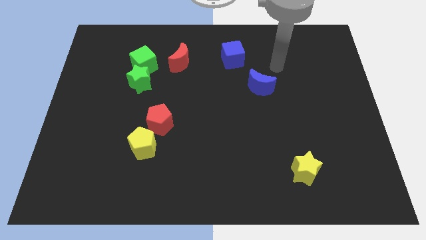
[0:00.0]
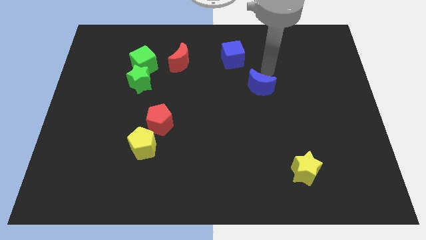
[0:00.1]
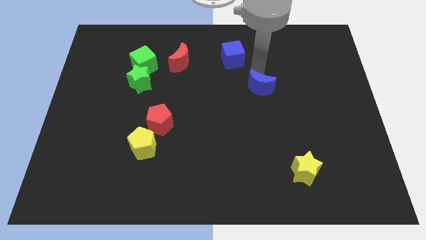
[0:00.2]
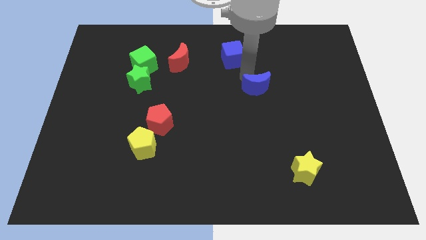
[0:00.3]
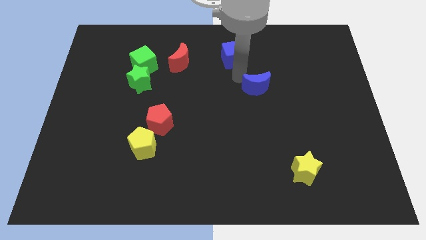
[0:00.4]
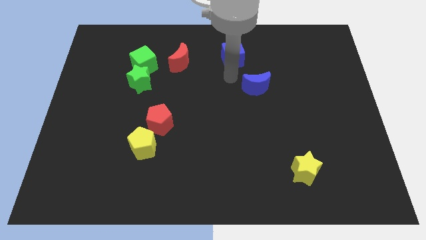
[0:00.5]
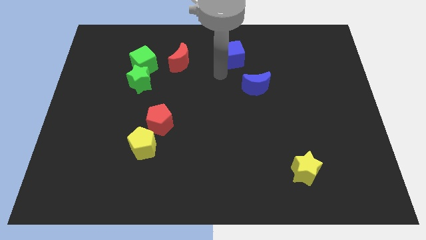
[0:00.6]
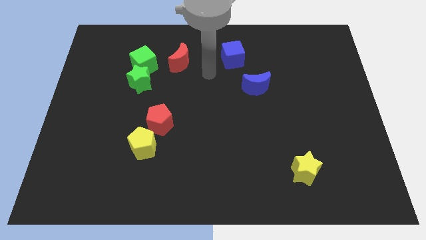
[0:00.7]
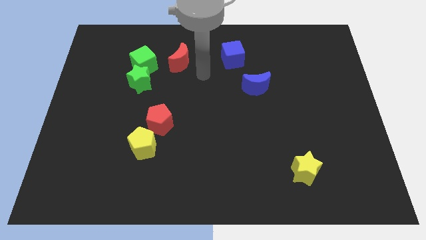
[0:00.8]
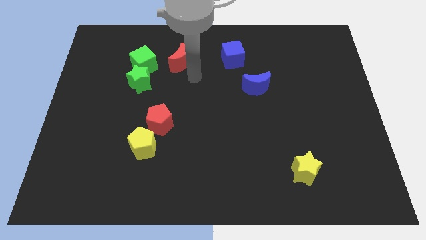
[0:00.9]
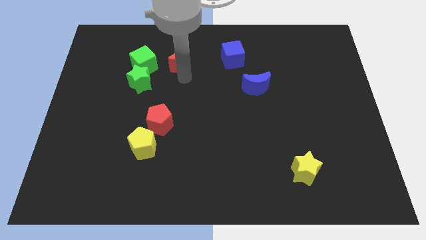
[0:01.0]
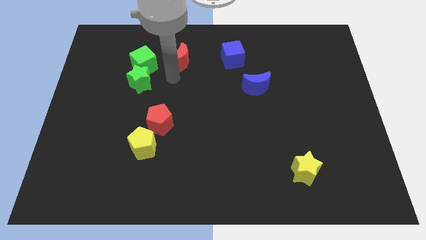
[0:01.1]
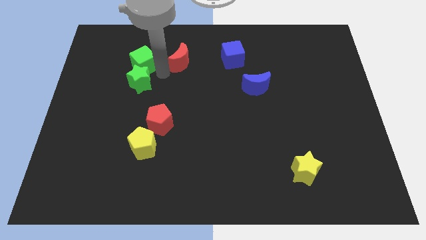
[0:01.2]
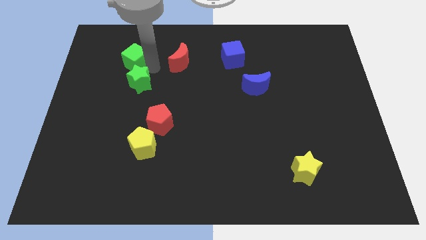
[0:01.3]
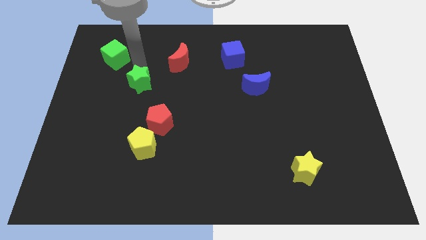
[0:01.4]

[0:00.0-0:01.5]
move the green star away from the green cube

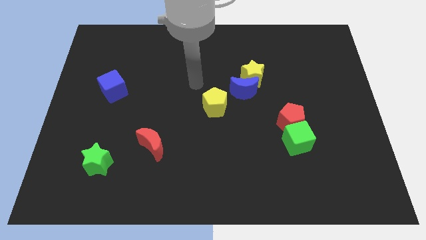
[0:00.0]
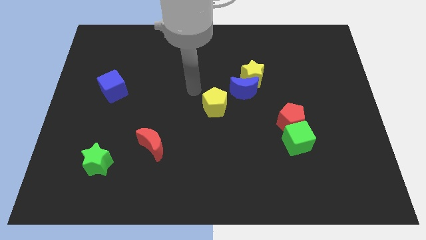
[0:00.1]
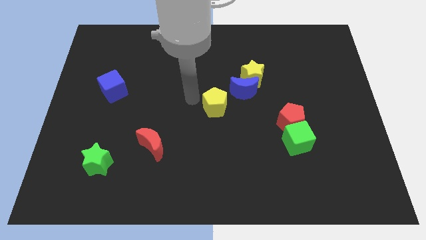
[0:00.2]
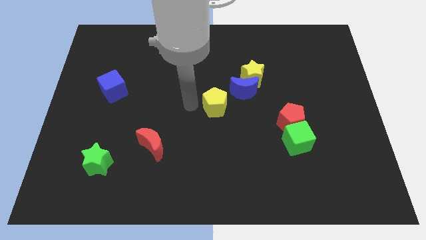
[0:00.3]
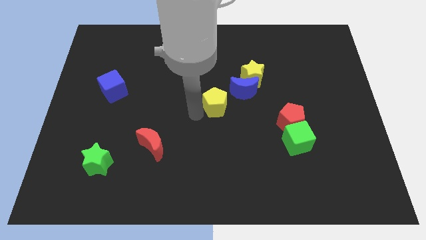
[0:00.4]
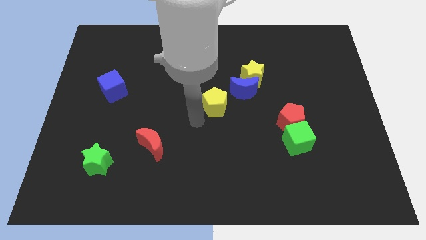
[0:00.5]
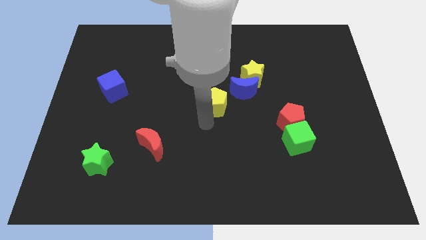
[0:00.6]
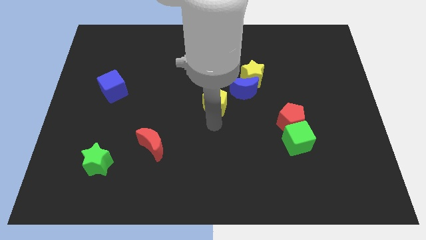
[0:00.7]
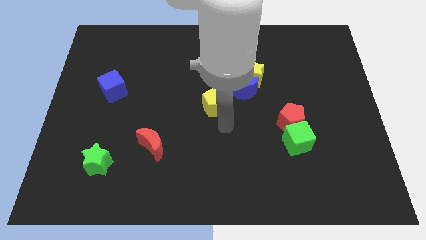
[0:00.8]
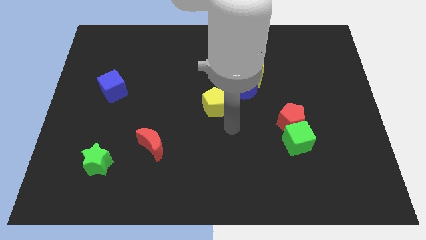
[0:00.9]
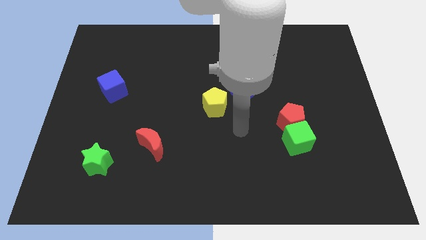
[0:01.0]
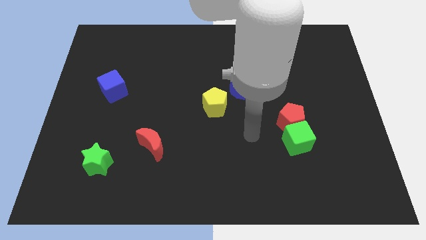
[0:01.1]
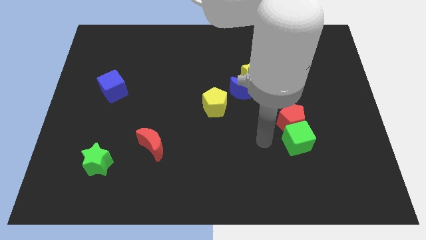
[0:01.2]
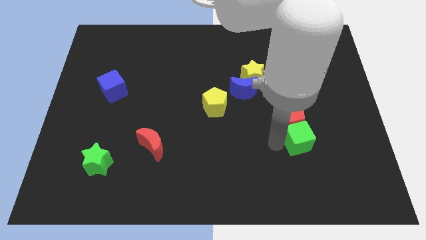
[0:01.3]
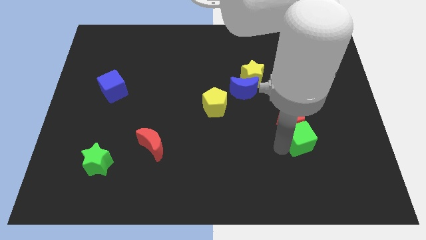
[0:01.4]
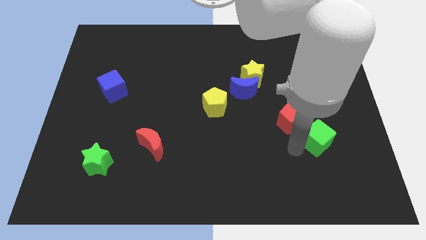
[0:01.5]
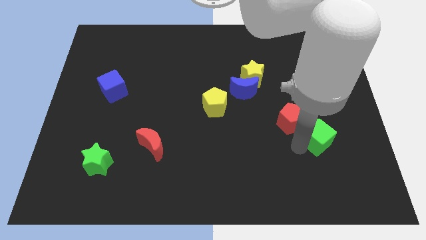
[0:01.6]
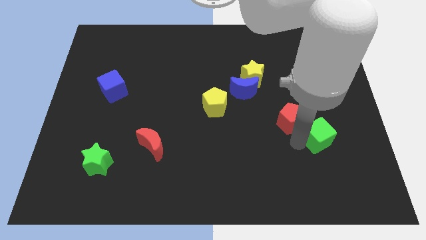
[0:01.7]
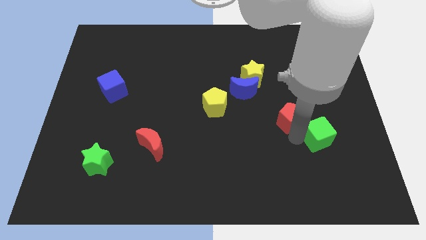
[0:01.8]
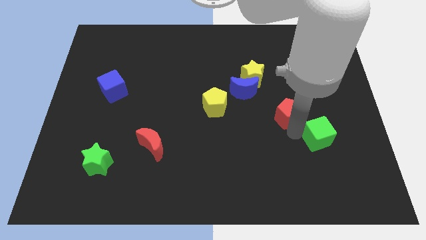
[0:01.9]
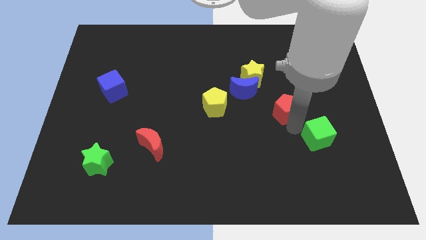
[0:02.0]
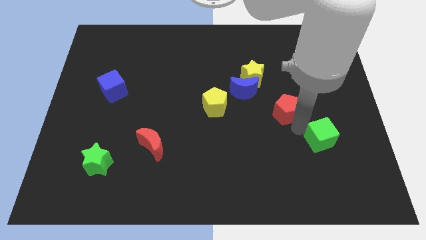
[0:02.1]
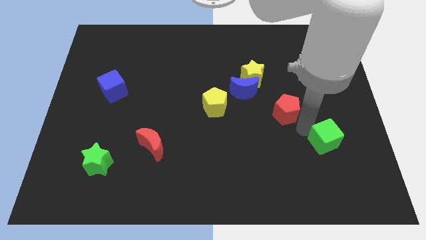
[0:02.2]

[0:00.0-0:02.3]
move the red pentagon away from the green cube

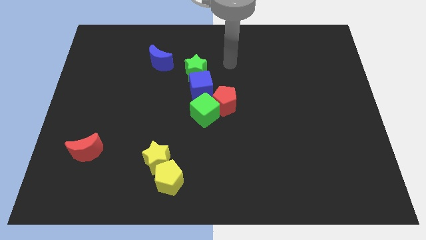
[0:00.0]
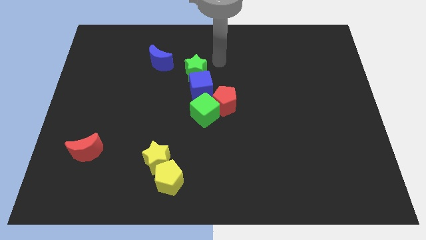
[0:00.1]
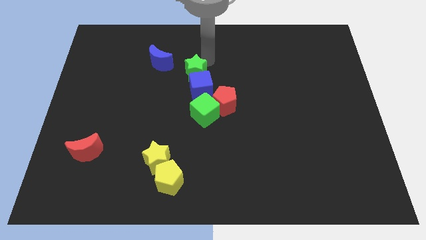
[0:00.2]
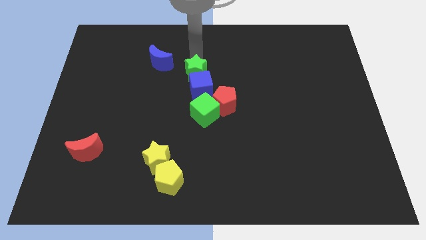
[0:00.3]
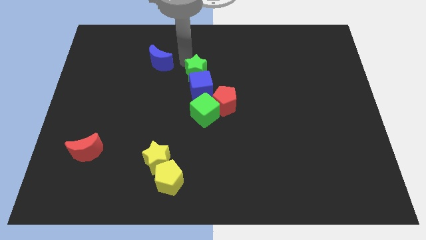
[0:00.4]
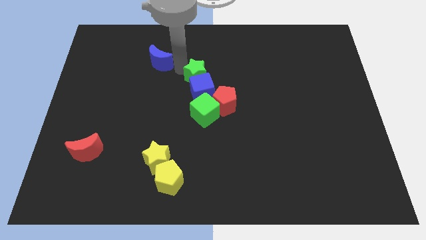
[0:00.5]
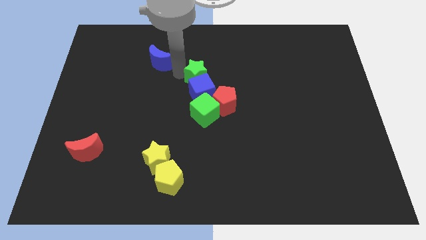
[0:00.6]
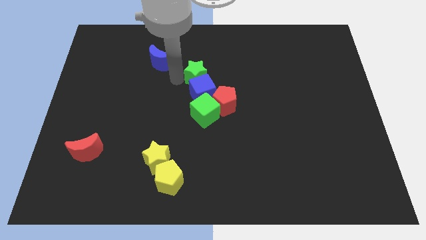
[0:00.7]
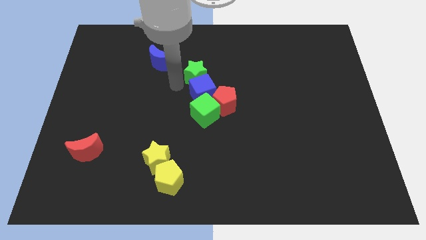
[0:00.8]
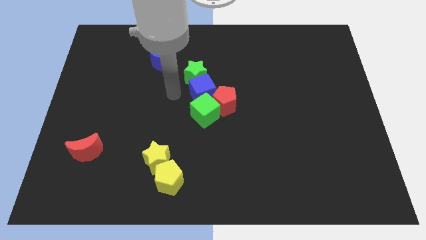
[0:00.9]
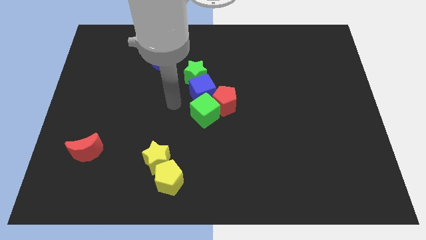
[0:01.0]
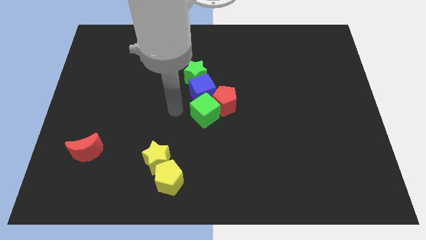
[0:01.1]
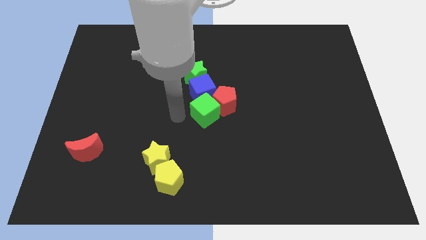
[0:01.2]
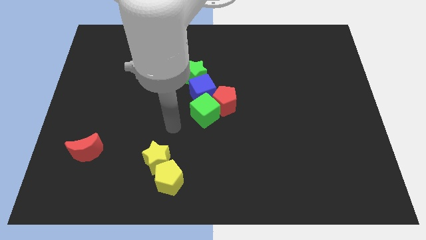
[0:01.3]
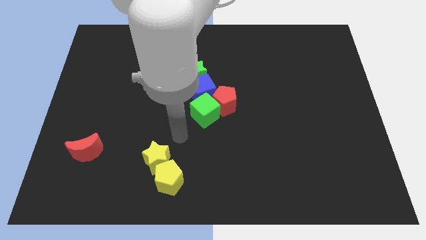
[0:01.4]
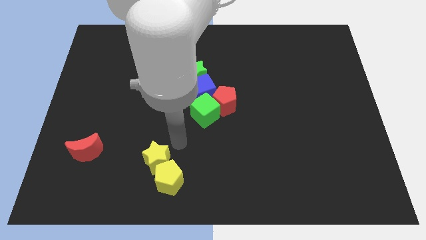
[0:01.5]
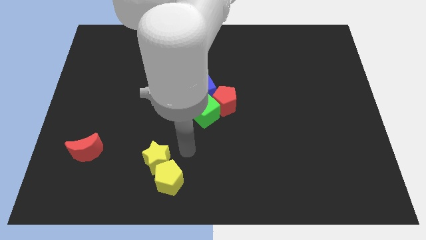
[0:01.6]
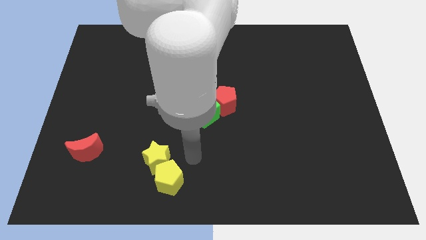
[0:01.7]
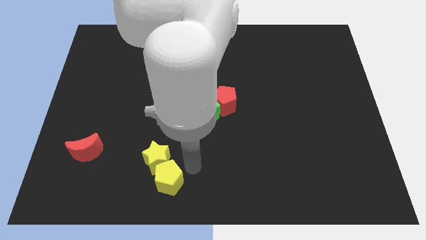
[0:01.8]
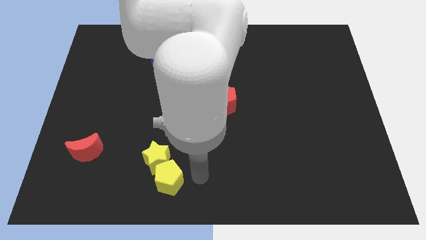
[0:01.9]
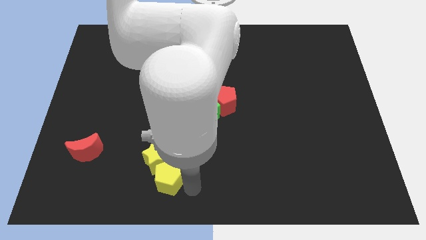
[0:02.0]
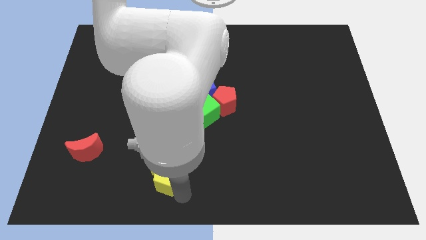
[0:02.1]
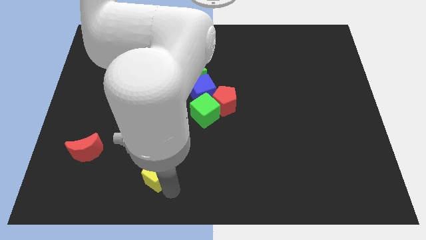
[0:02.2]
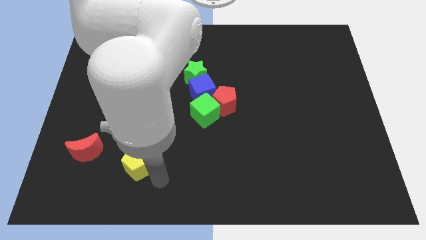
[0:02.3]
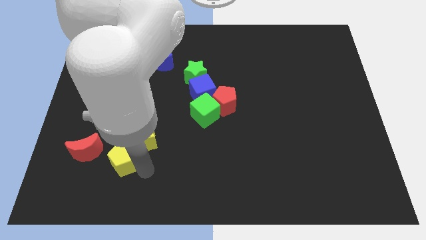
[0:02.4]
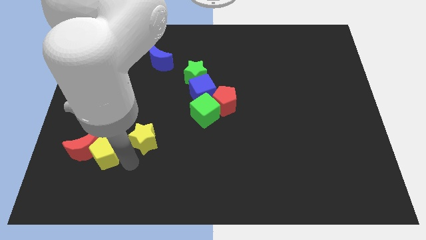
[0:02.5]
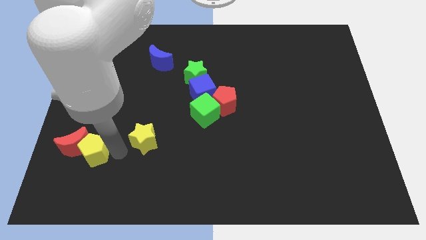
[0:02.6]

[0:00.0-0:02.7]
move the yellow star away from the yellow pentagon

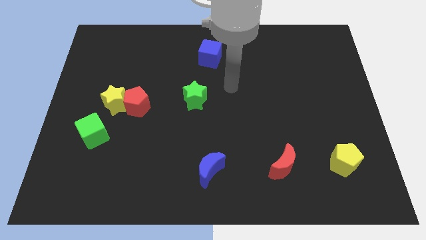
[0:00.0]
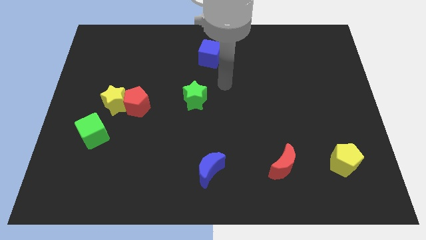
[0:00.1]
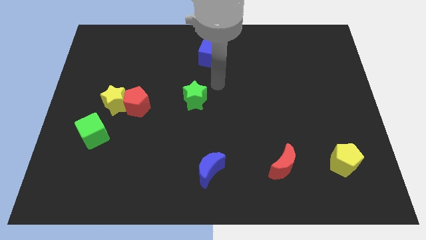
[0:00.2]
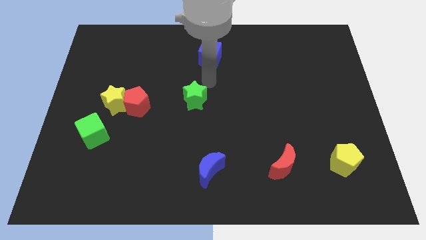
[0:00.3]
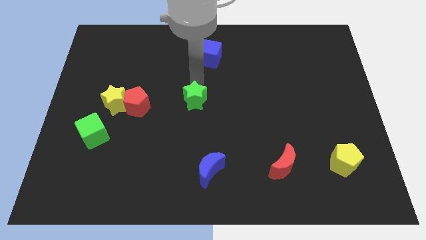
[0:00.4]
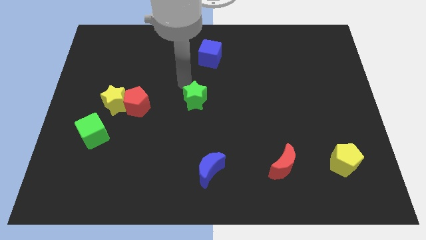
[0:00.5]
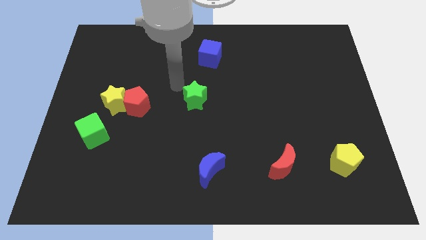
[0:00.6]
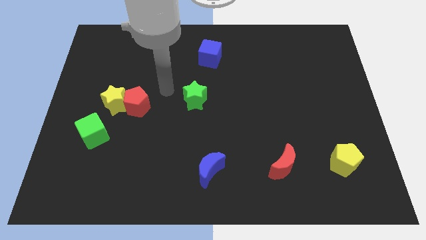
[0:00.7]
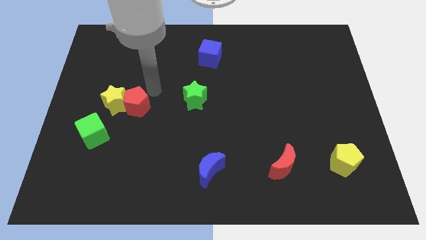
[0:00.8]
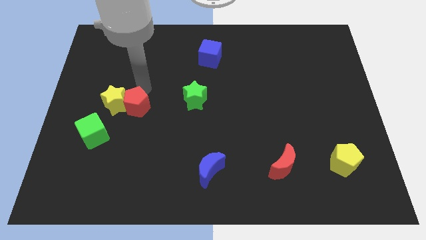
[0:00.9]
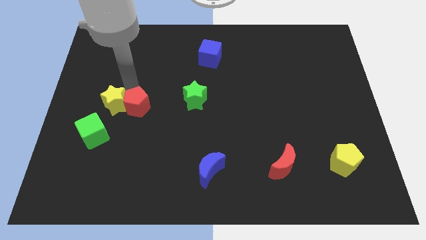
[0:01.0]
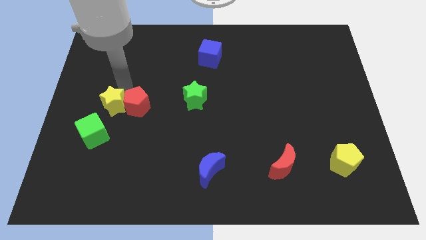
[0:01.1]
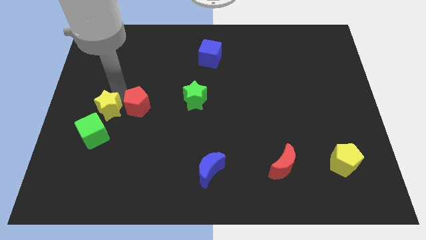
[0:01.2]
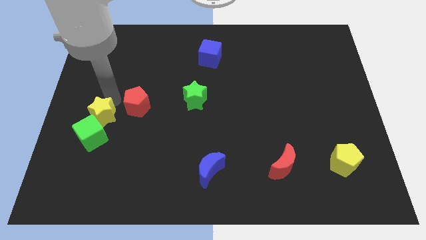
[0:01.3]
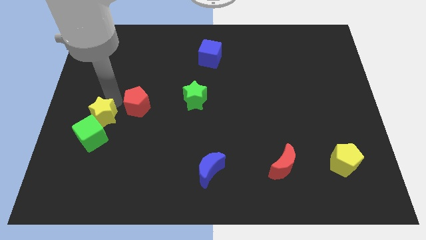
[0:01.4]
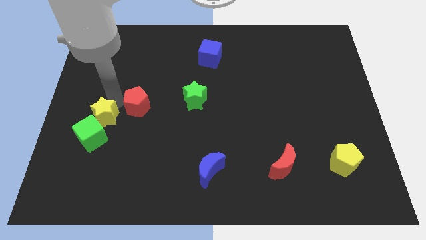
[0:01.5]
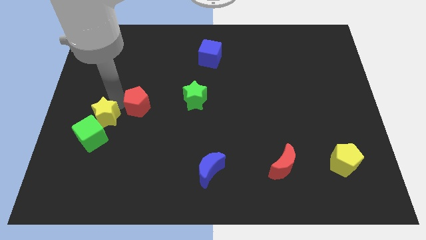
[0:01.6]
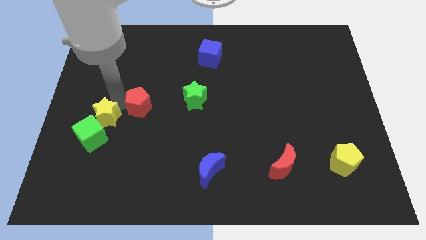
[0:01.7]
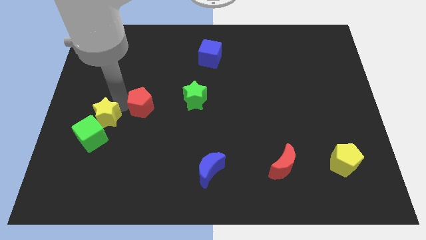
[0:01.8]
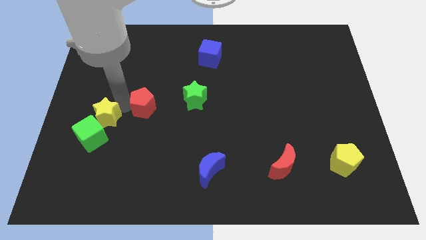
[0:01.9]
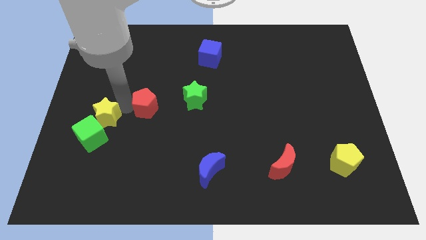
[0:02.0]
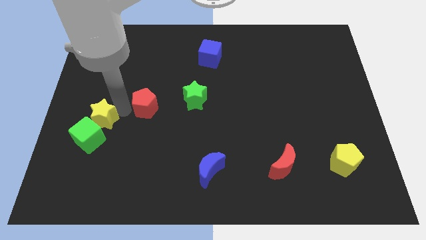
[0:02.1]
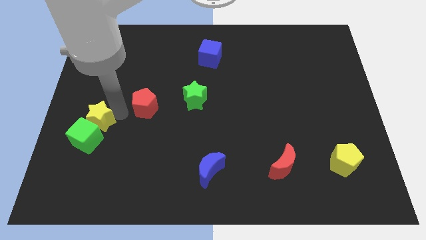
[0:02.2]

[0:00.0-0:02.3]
separate the red pentagon from the yellow star

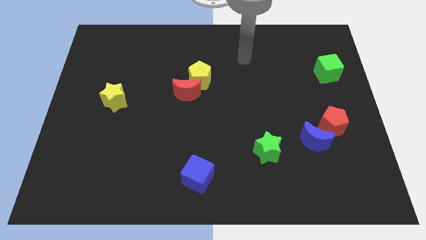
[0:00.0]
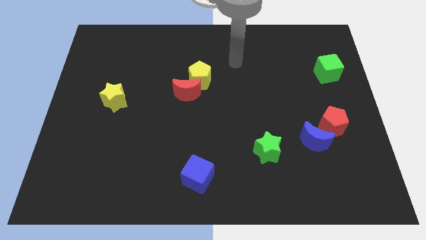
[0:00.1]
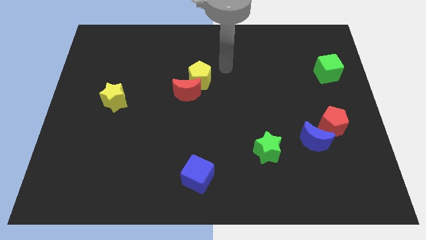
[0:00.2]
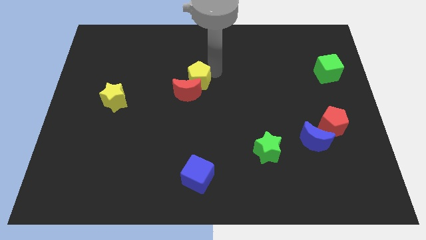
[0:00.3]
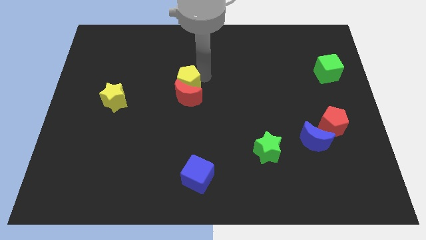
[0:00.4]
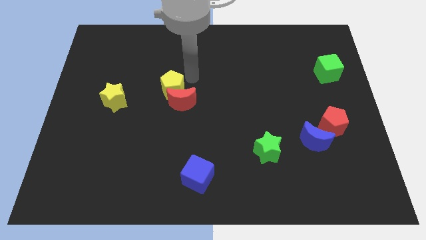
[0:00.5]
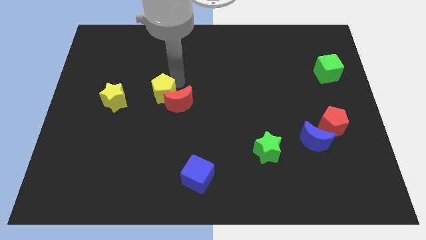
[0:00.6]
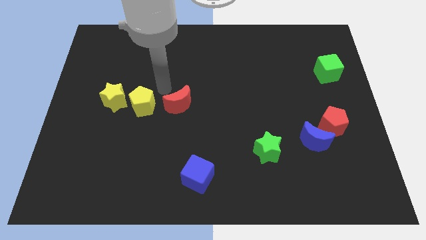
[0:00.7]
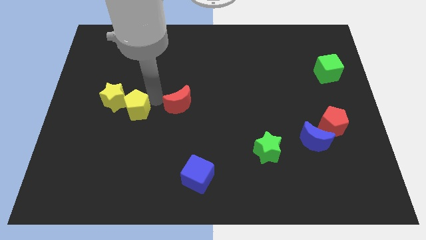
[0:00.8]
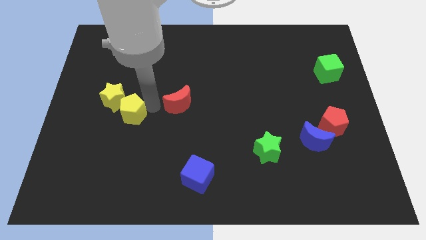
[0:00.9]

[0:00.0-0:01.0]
move the red moon away from the yellow pentagon
